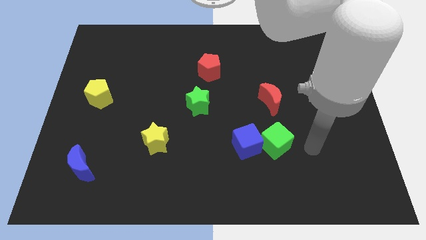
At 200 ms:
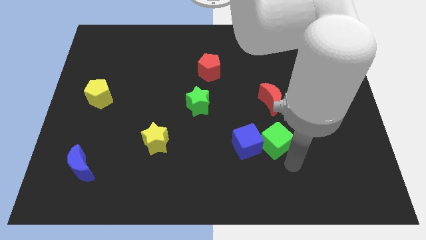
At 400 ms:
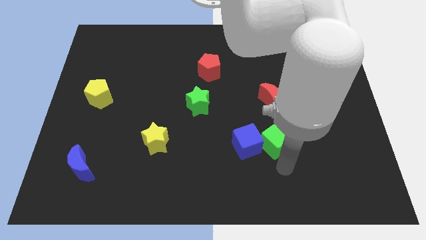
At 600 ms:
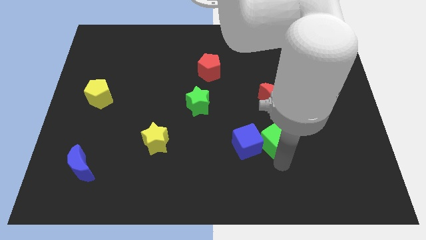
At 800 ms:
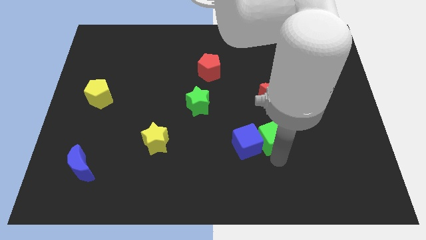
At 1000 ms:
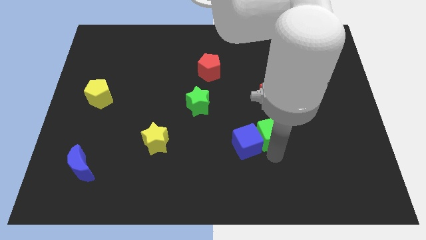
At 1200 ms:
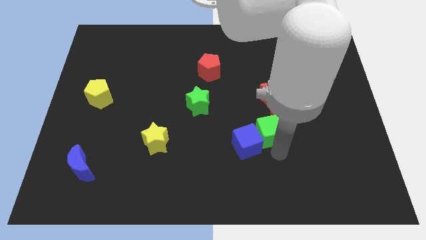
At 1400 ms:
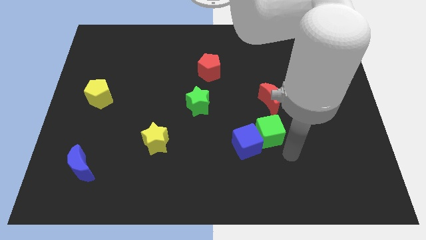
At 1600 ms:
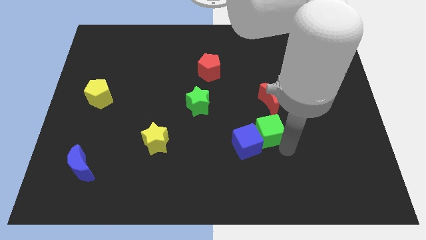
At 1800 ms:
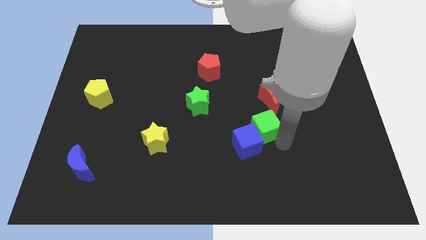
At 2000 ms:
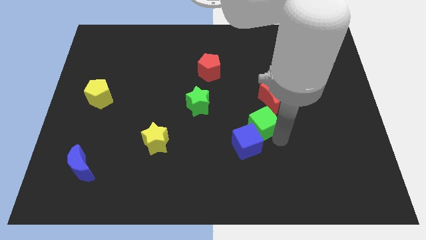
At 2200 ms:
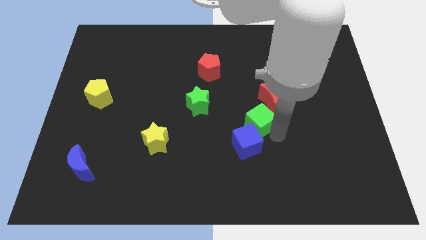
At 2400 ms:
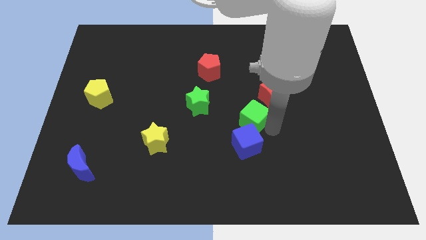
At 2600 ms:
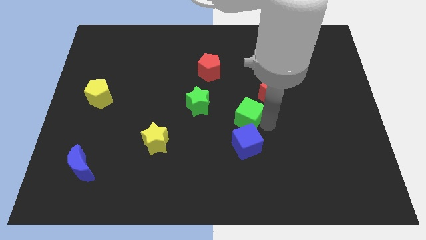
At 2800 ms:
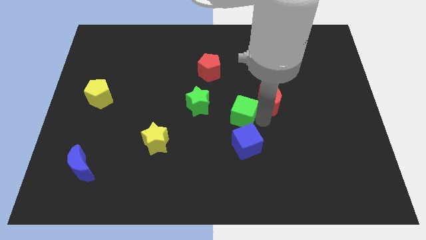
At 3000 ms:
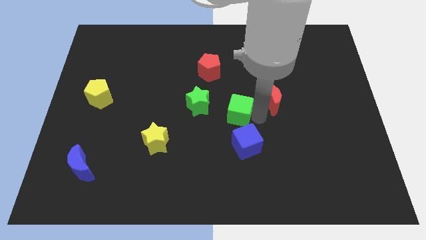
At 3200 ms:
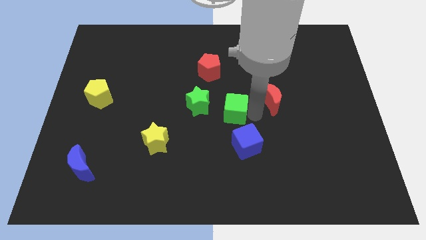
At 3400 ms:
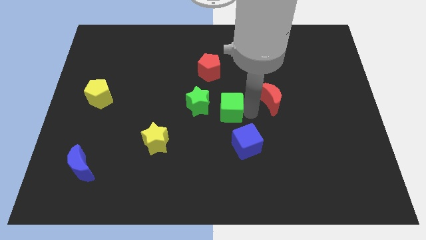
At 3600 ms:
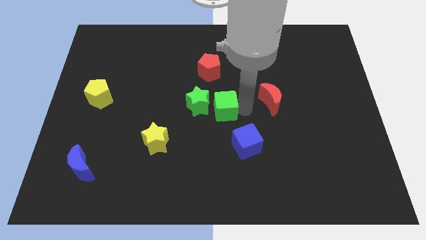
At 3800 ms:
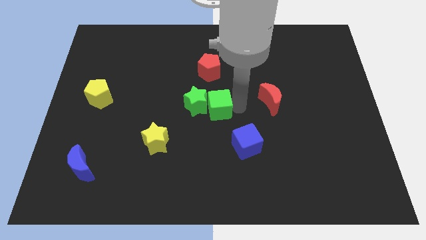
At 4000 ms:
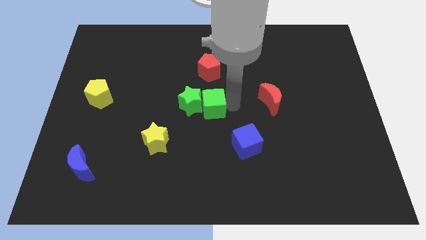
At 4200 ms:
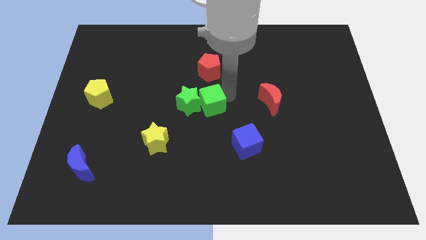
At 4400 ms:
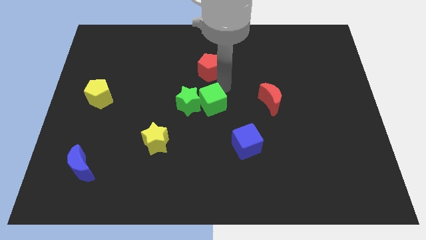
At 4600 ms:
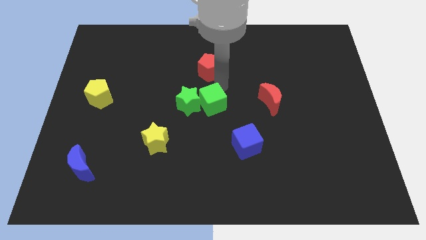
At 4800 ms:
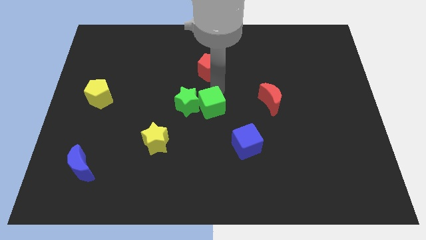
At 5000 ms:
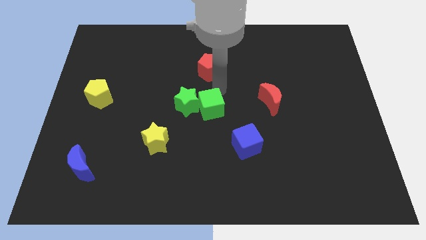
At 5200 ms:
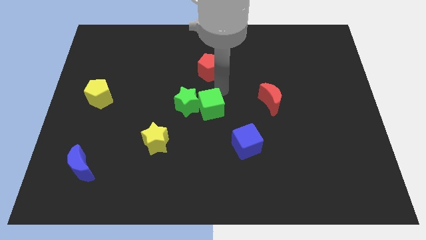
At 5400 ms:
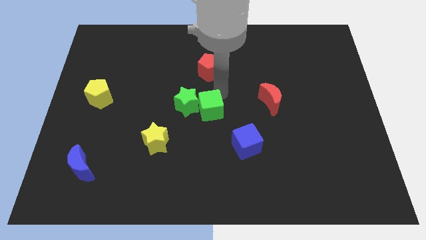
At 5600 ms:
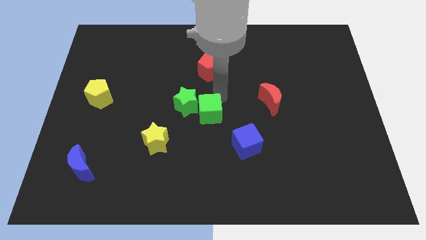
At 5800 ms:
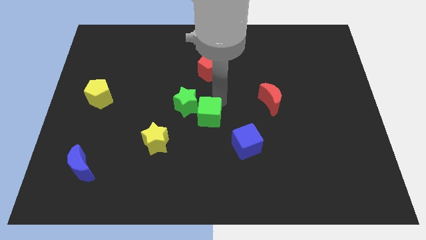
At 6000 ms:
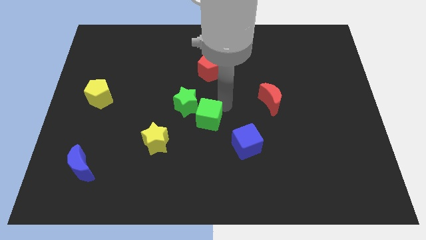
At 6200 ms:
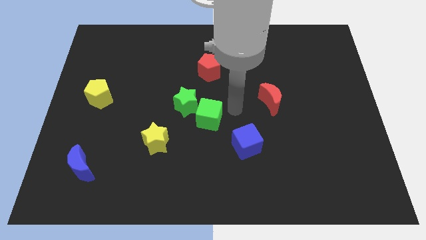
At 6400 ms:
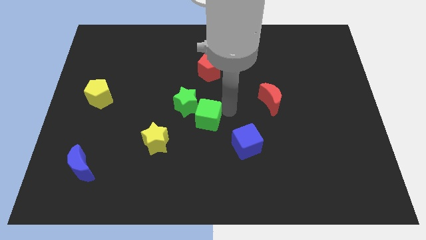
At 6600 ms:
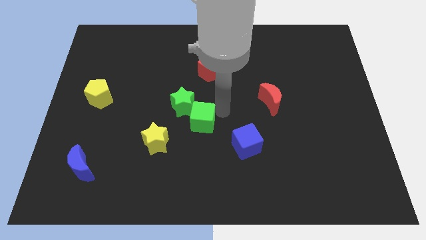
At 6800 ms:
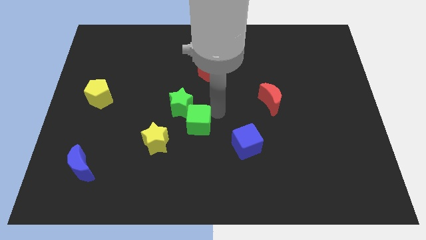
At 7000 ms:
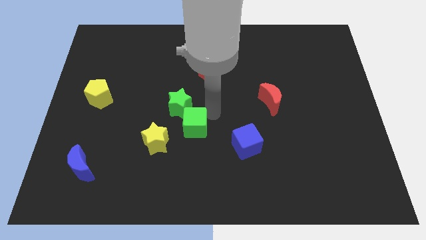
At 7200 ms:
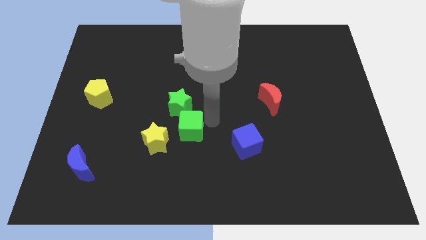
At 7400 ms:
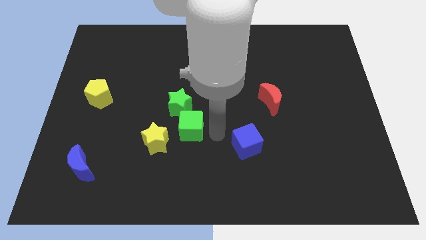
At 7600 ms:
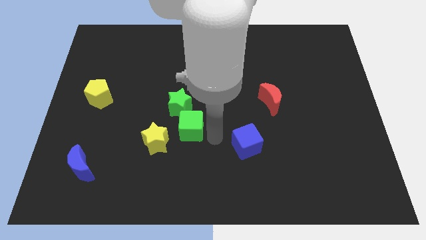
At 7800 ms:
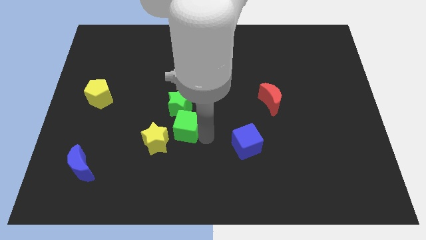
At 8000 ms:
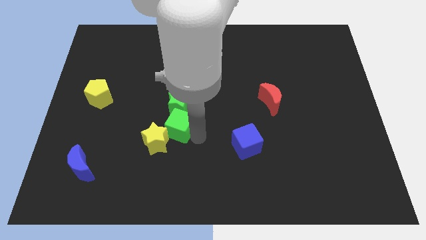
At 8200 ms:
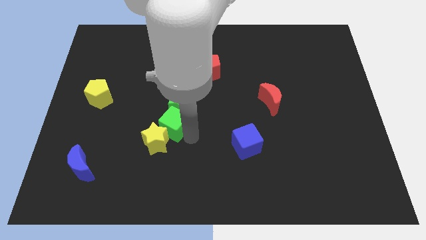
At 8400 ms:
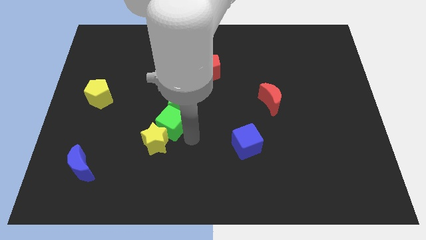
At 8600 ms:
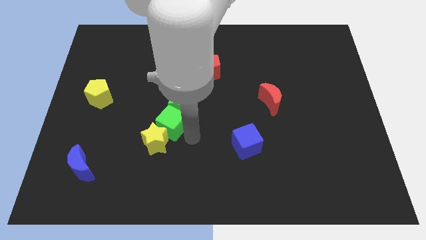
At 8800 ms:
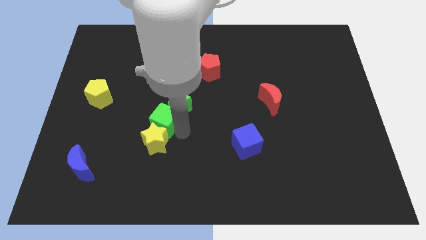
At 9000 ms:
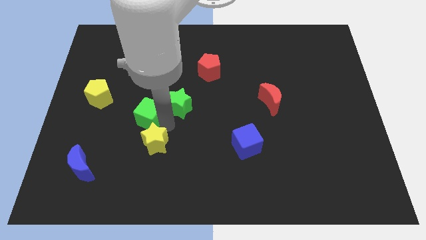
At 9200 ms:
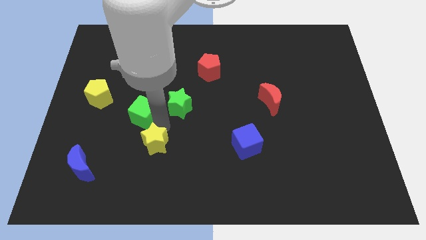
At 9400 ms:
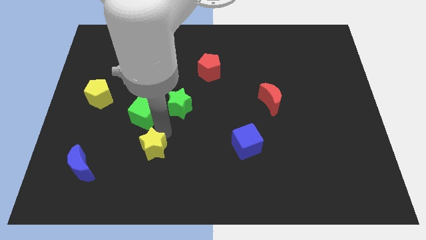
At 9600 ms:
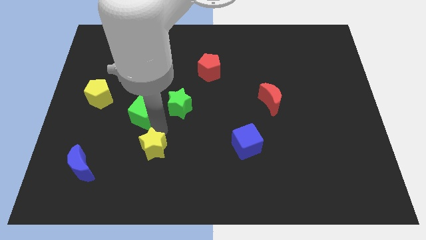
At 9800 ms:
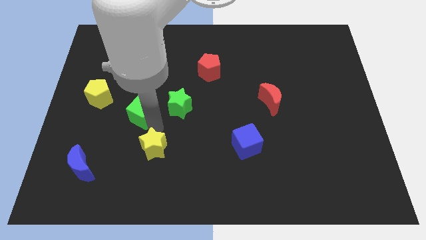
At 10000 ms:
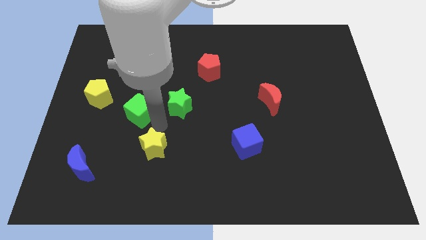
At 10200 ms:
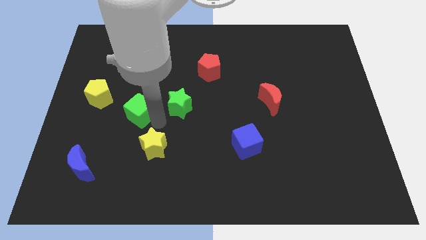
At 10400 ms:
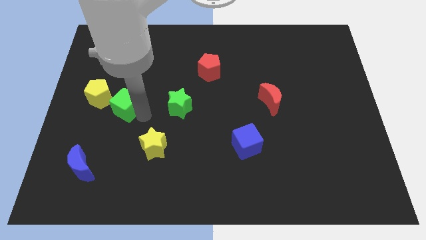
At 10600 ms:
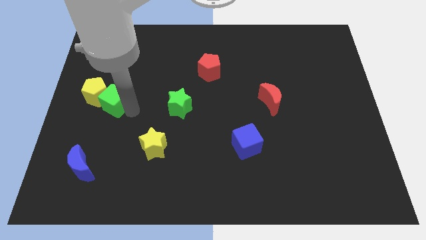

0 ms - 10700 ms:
slide the green cube next to the yellow pentagon

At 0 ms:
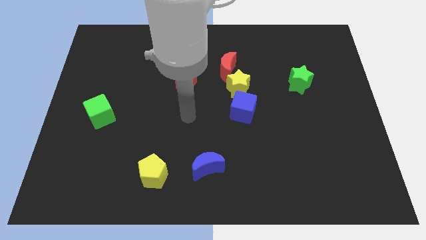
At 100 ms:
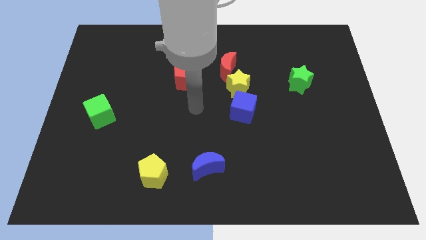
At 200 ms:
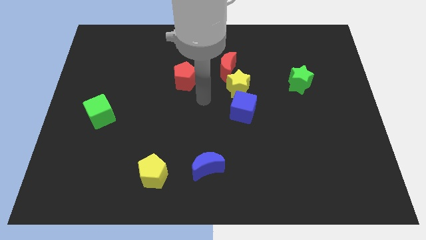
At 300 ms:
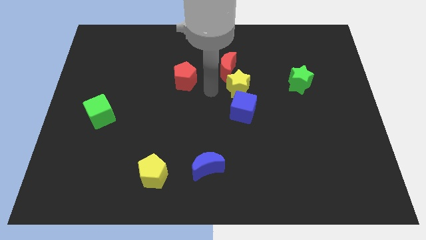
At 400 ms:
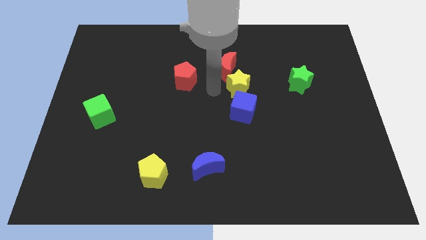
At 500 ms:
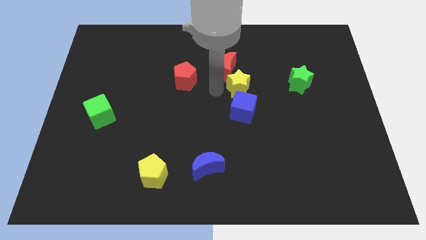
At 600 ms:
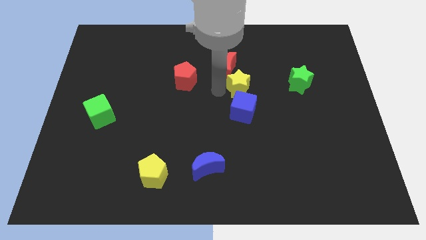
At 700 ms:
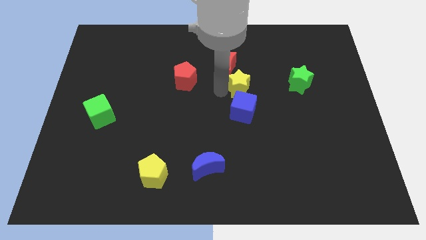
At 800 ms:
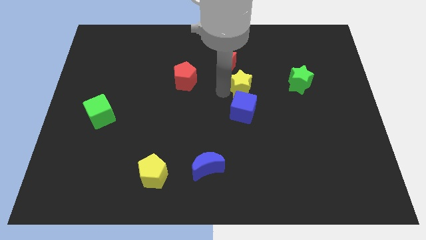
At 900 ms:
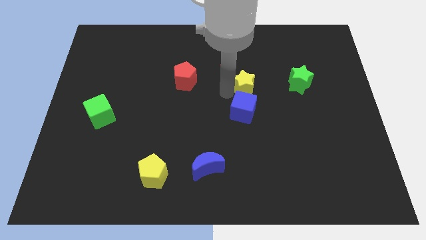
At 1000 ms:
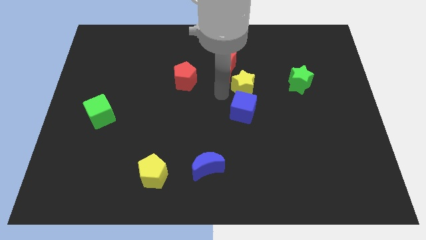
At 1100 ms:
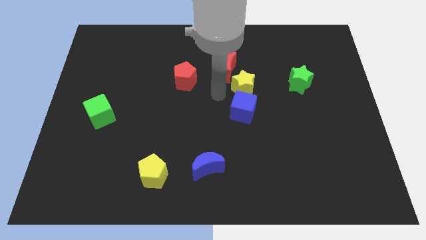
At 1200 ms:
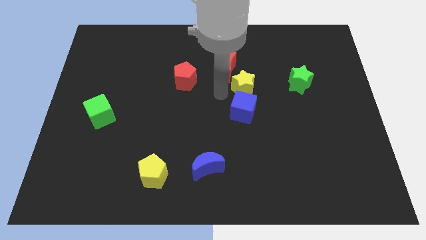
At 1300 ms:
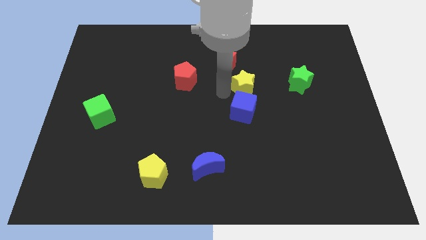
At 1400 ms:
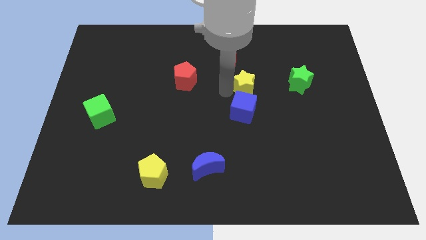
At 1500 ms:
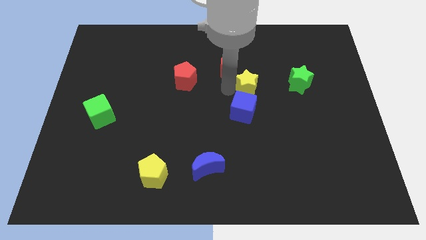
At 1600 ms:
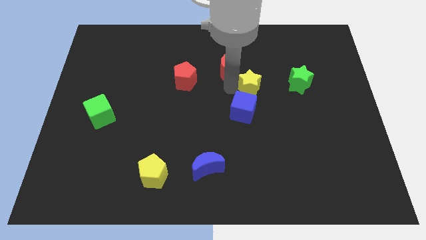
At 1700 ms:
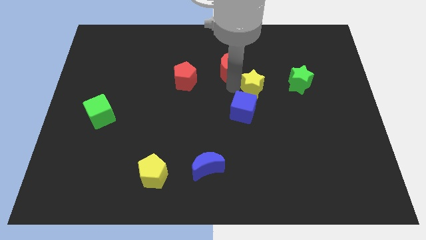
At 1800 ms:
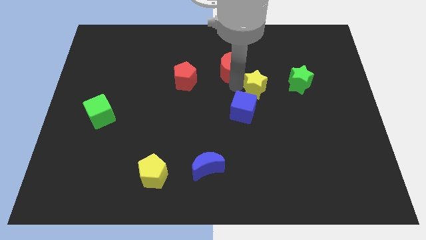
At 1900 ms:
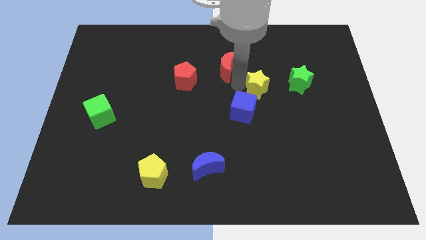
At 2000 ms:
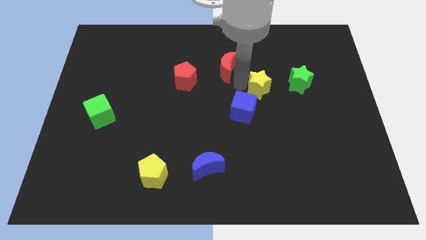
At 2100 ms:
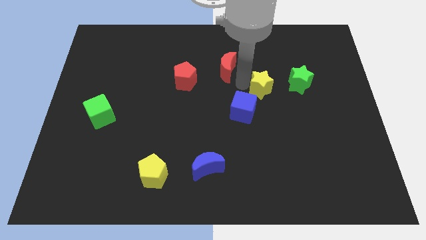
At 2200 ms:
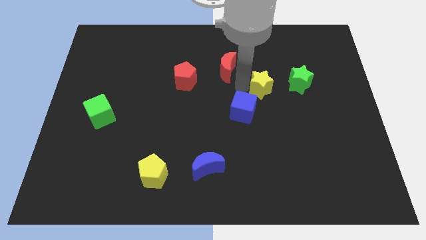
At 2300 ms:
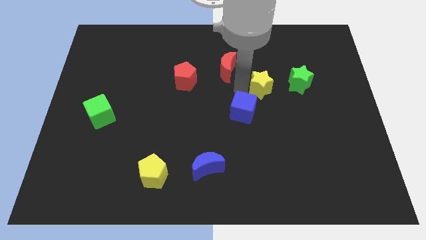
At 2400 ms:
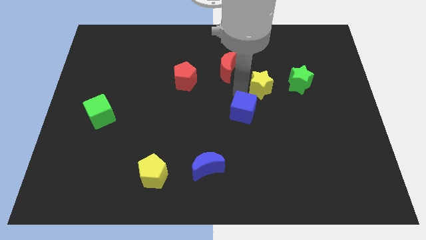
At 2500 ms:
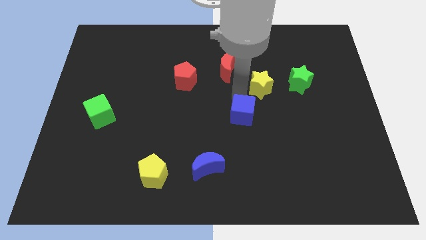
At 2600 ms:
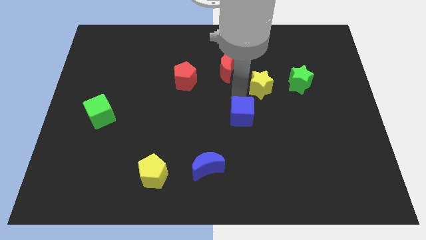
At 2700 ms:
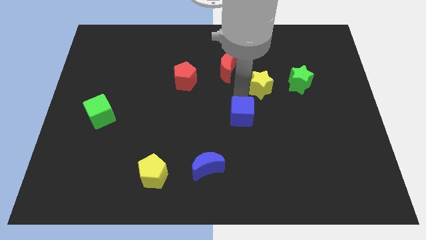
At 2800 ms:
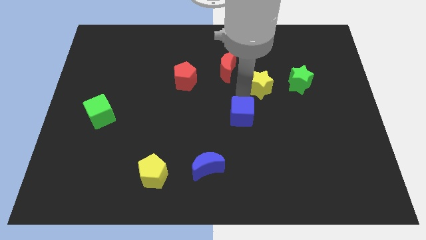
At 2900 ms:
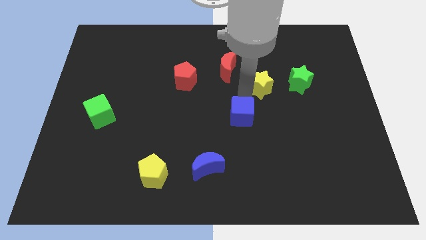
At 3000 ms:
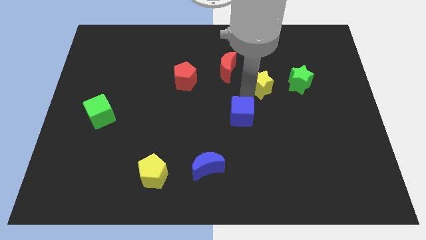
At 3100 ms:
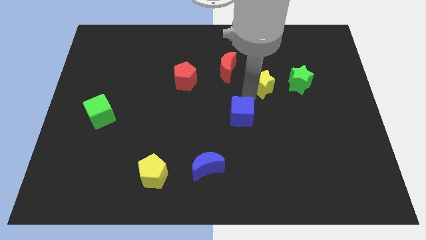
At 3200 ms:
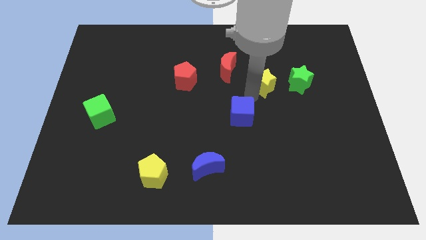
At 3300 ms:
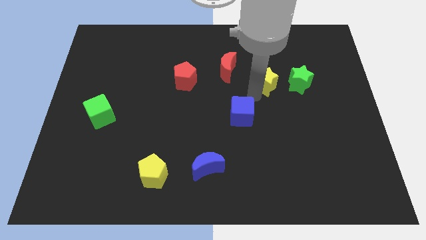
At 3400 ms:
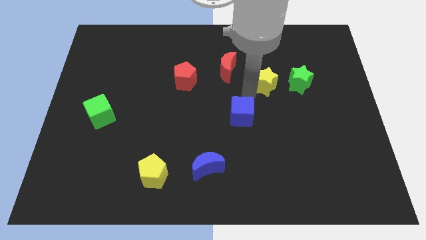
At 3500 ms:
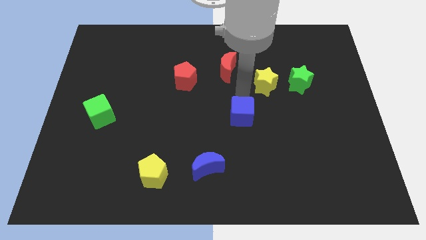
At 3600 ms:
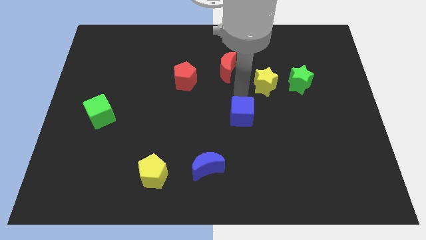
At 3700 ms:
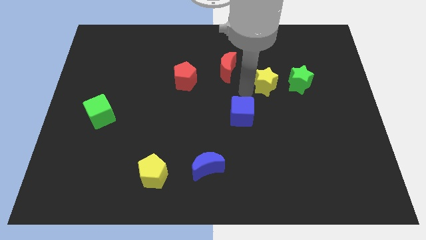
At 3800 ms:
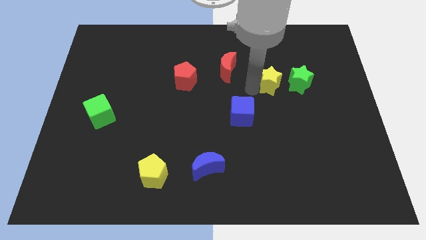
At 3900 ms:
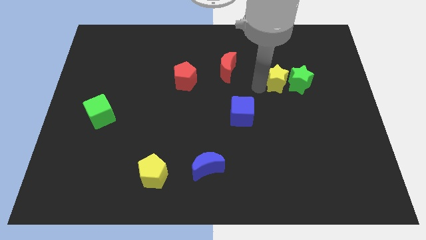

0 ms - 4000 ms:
put the yellow star close to the green star
